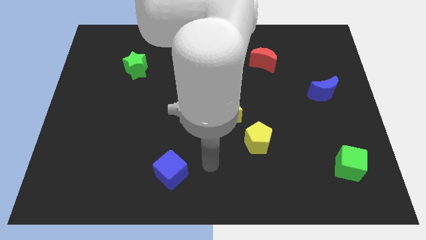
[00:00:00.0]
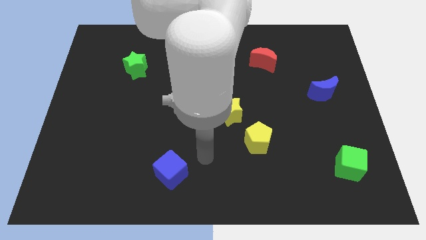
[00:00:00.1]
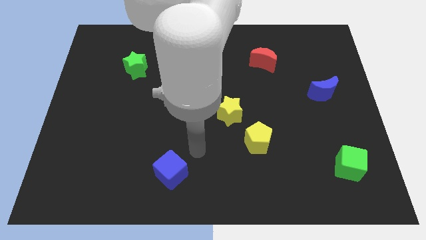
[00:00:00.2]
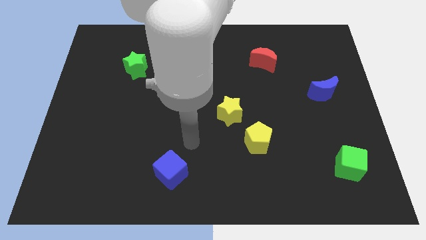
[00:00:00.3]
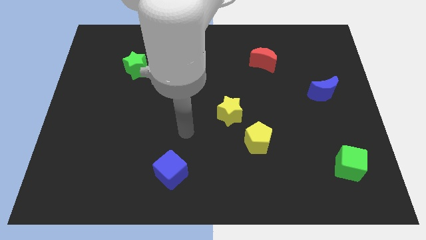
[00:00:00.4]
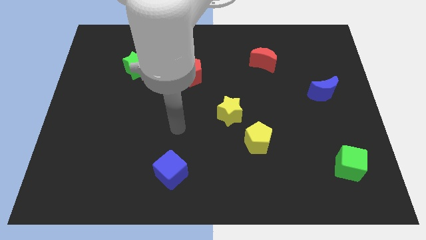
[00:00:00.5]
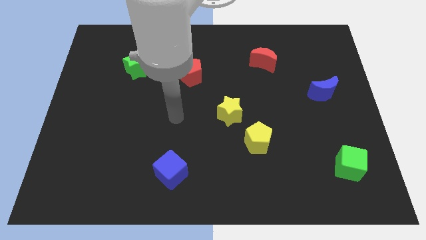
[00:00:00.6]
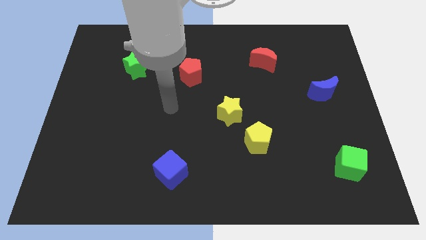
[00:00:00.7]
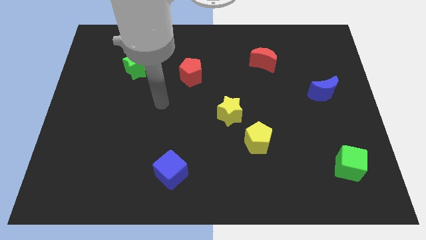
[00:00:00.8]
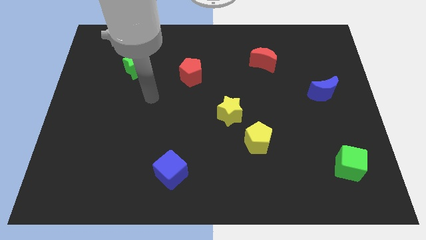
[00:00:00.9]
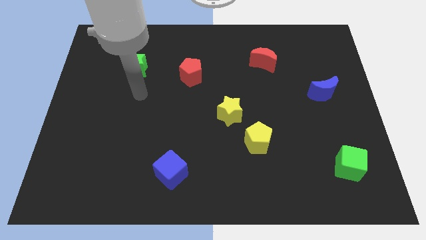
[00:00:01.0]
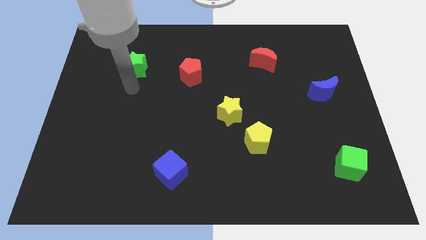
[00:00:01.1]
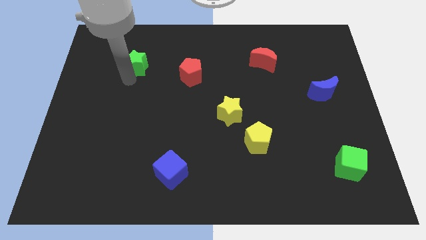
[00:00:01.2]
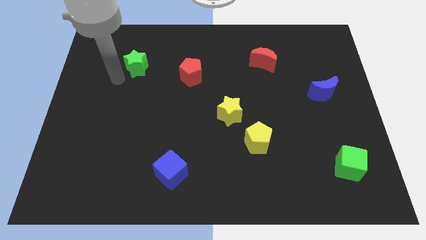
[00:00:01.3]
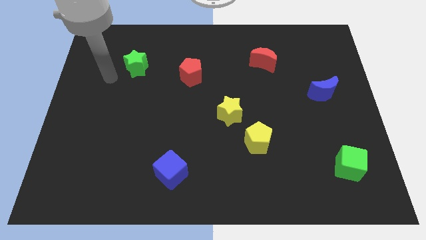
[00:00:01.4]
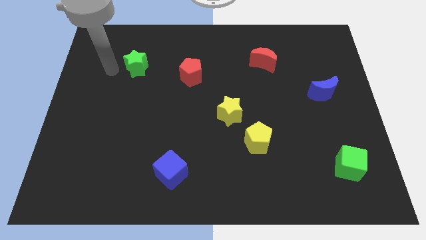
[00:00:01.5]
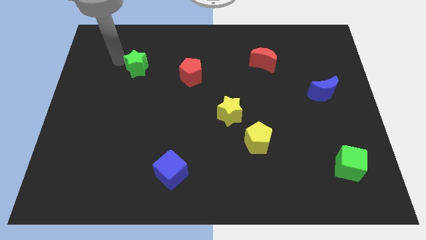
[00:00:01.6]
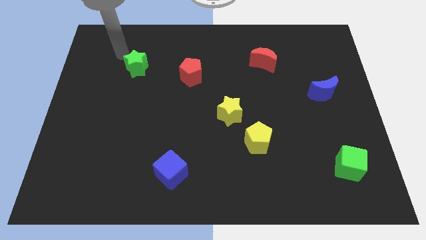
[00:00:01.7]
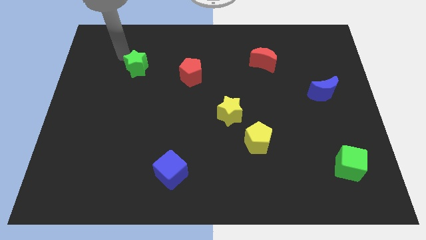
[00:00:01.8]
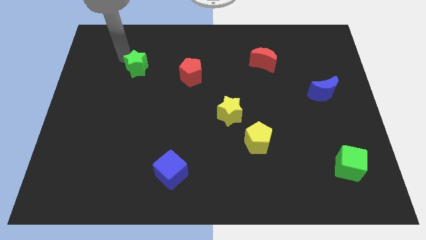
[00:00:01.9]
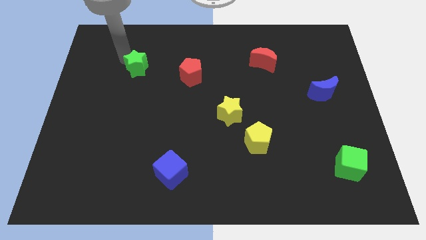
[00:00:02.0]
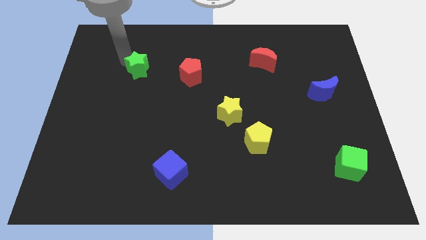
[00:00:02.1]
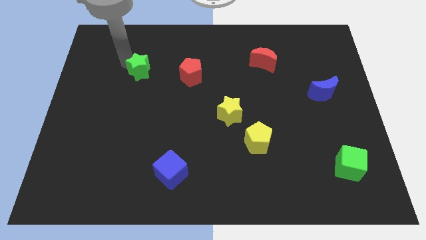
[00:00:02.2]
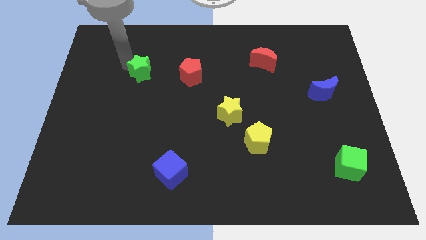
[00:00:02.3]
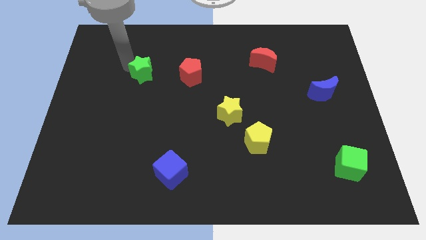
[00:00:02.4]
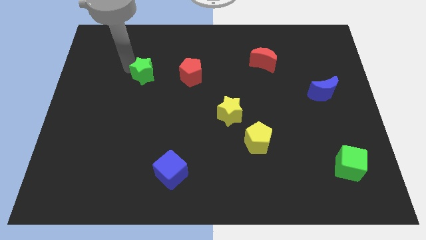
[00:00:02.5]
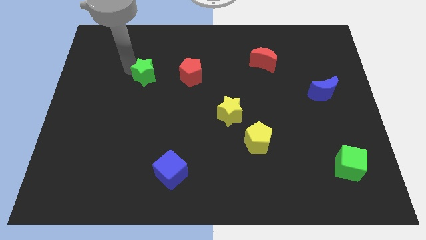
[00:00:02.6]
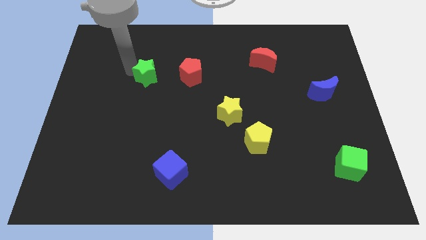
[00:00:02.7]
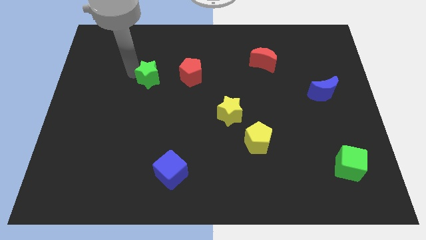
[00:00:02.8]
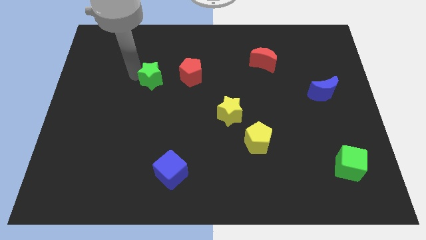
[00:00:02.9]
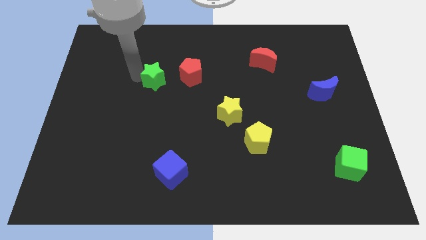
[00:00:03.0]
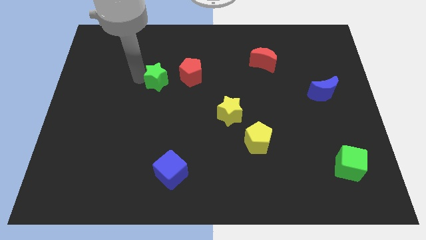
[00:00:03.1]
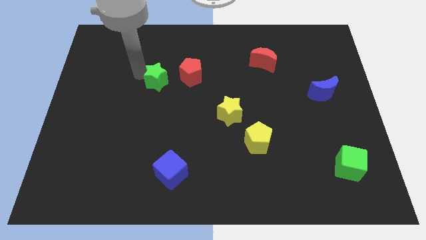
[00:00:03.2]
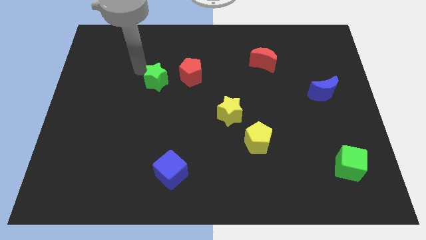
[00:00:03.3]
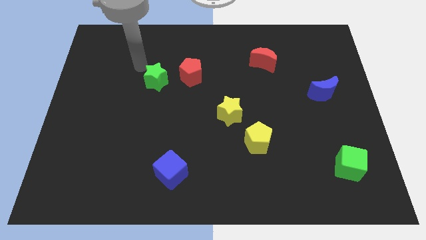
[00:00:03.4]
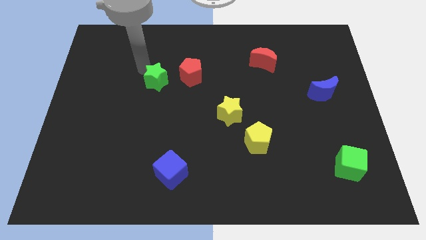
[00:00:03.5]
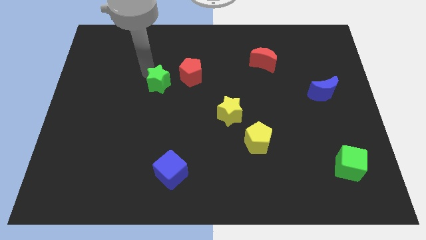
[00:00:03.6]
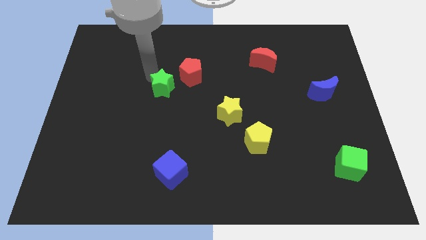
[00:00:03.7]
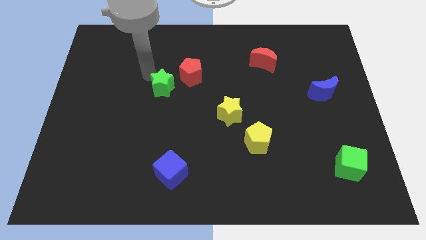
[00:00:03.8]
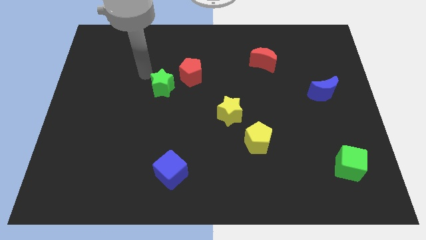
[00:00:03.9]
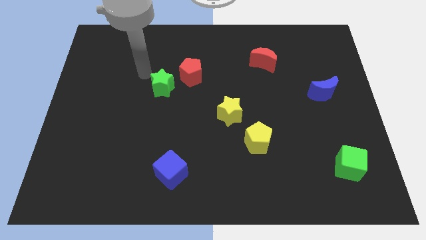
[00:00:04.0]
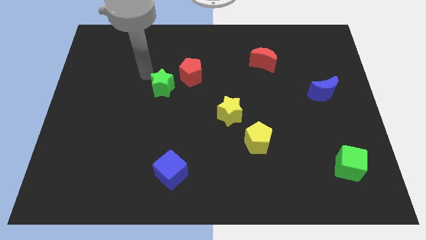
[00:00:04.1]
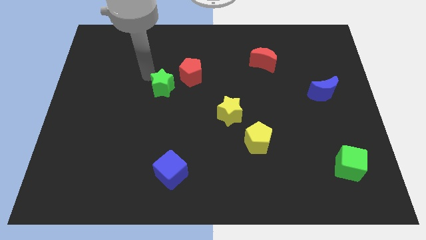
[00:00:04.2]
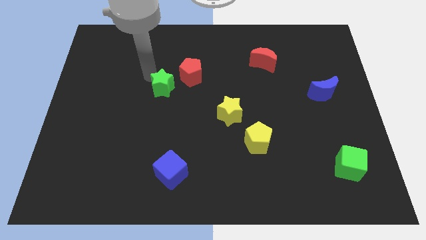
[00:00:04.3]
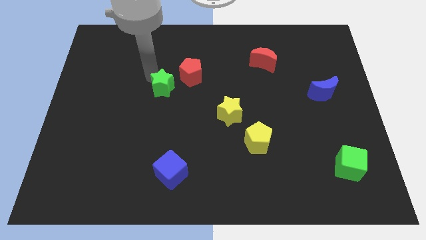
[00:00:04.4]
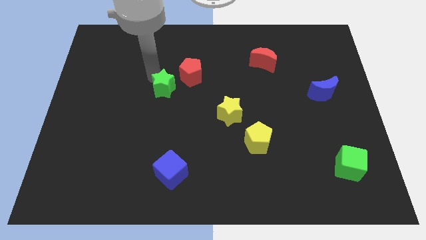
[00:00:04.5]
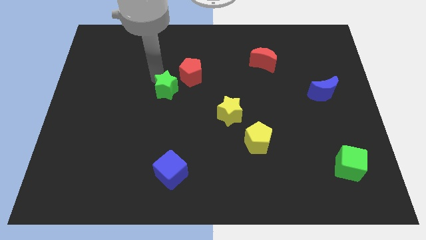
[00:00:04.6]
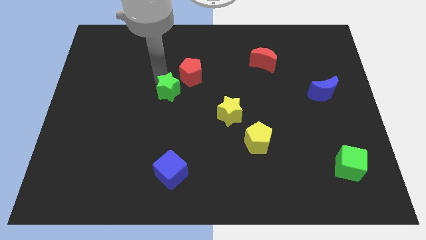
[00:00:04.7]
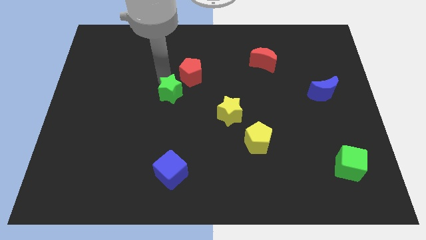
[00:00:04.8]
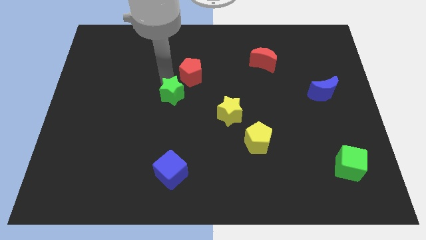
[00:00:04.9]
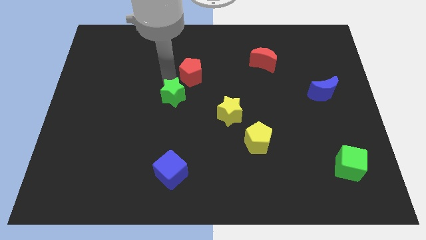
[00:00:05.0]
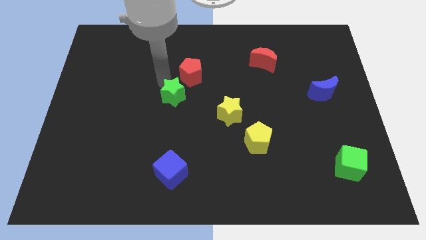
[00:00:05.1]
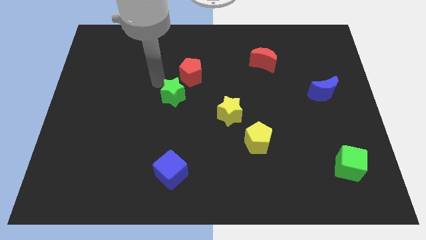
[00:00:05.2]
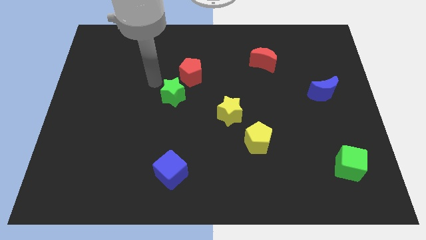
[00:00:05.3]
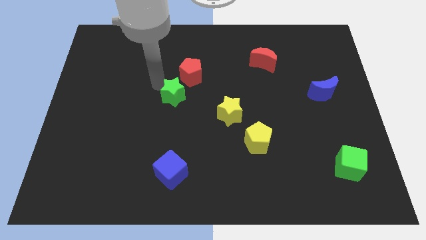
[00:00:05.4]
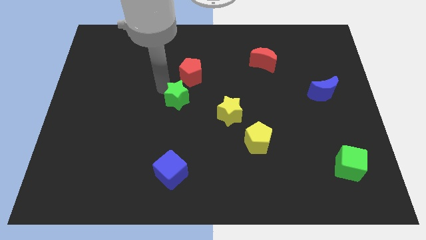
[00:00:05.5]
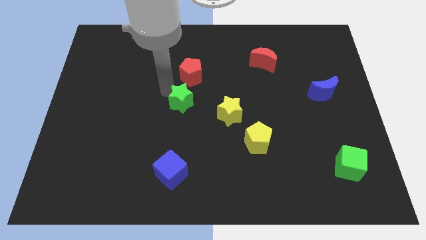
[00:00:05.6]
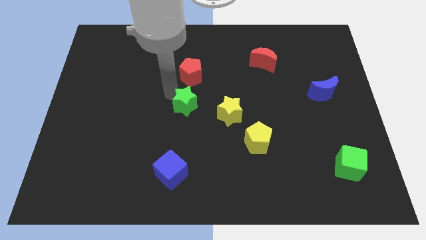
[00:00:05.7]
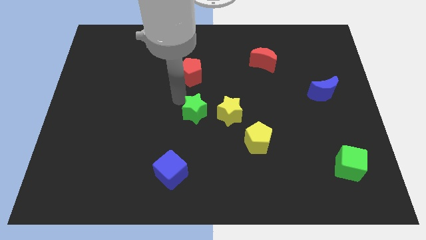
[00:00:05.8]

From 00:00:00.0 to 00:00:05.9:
slide the green star downwards and then right

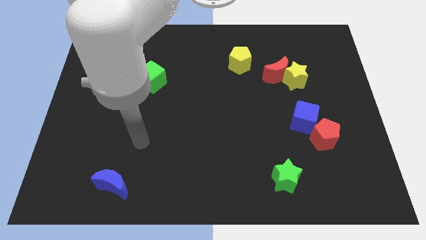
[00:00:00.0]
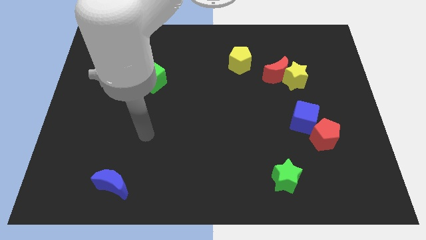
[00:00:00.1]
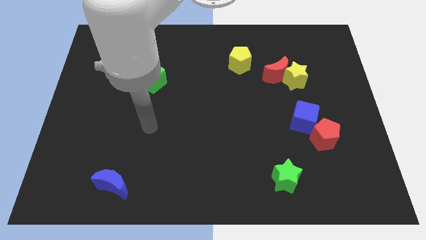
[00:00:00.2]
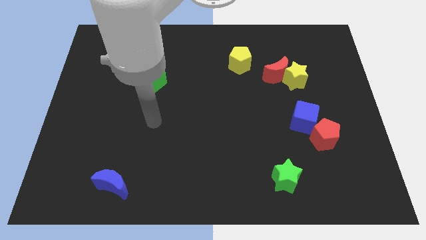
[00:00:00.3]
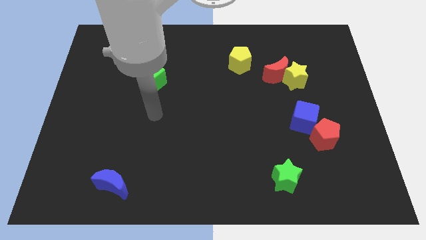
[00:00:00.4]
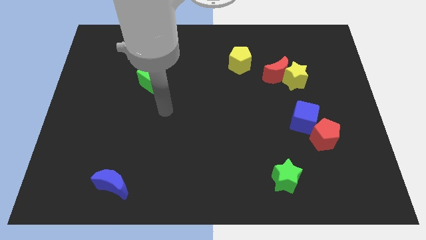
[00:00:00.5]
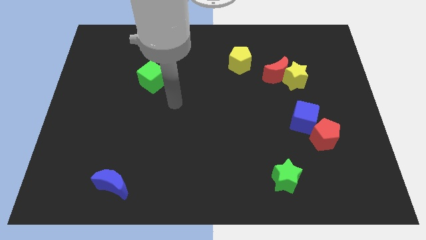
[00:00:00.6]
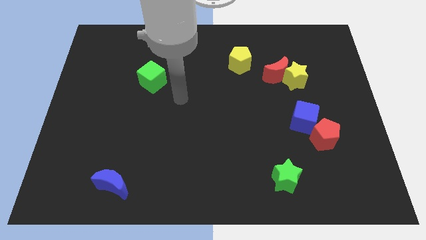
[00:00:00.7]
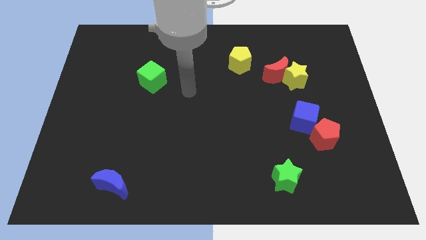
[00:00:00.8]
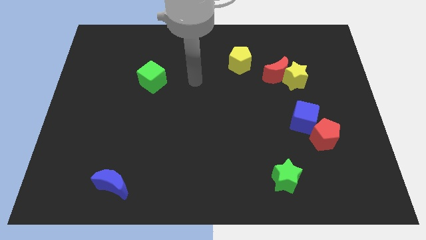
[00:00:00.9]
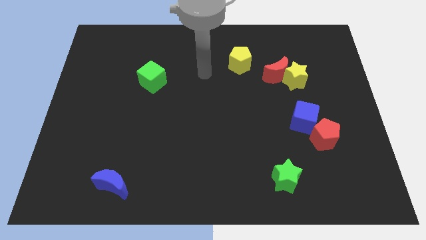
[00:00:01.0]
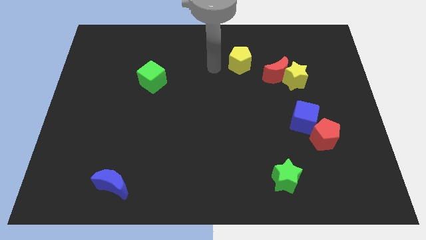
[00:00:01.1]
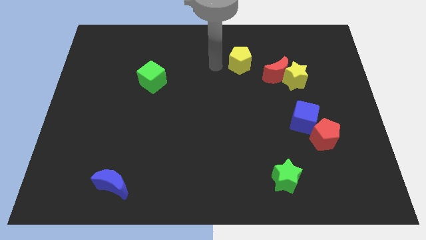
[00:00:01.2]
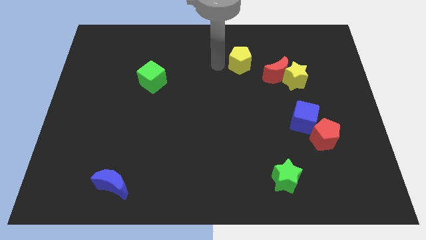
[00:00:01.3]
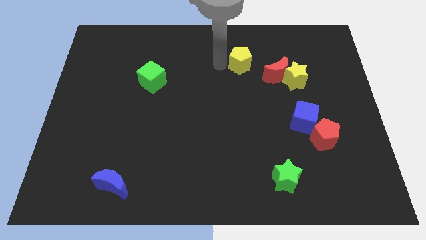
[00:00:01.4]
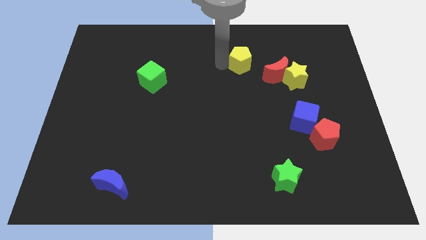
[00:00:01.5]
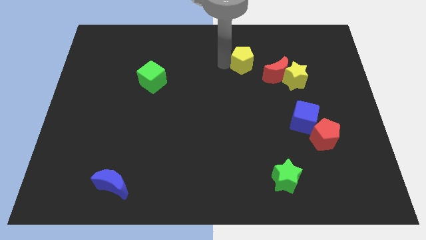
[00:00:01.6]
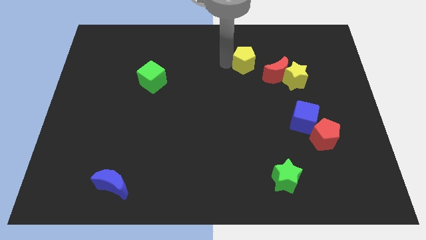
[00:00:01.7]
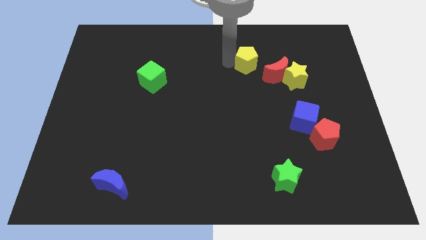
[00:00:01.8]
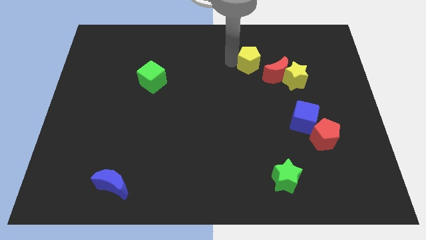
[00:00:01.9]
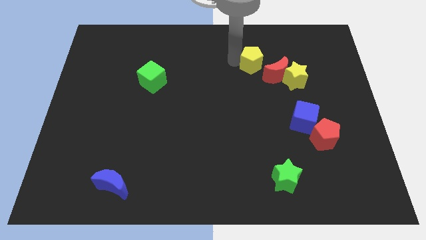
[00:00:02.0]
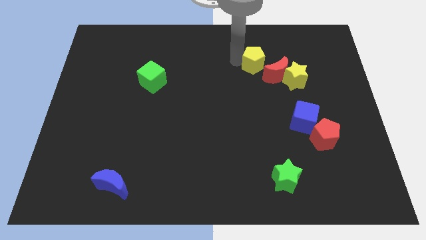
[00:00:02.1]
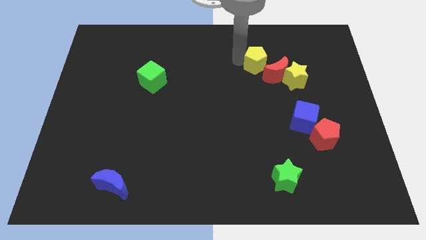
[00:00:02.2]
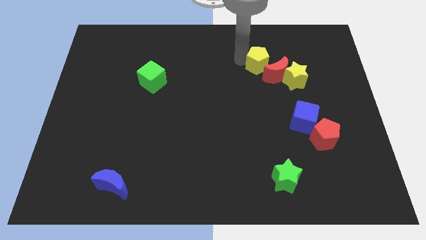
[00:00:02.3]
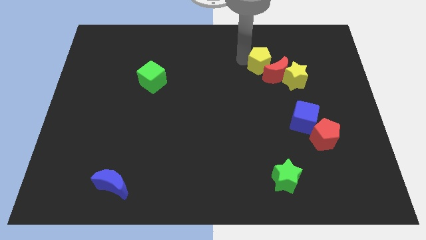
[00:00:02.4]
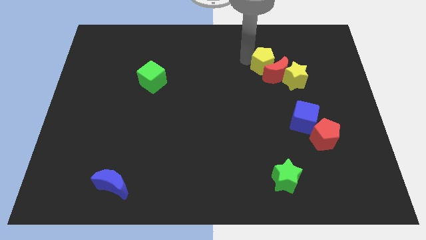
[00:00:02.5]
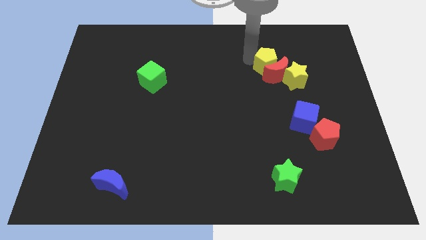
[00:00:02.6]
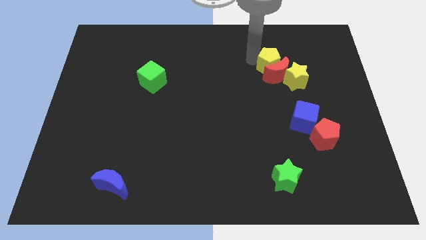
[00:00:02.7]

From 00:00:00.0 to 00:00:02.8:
slightly move the yellow pentagon to the right
